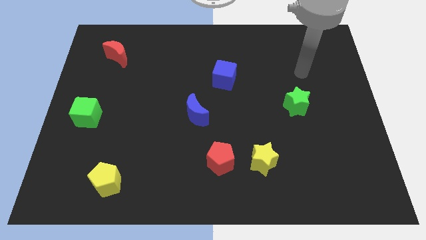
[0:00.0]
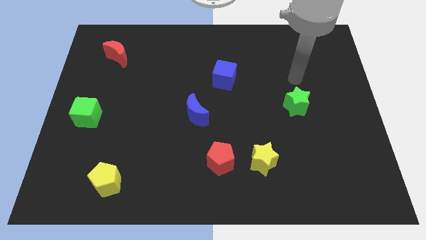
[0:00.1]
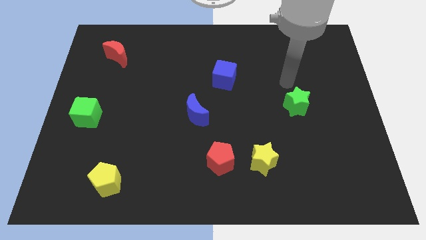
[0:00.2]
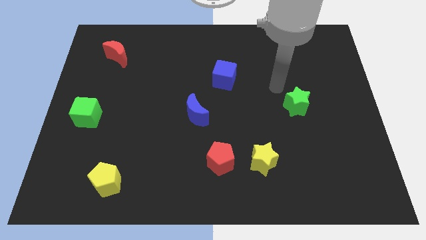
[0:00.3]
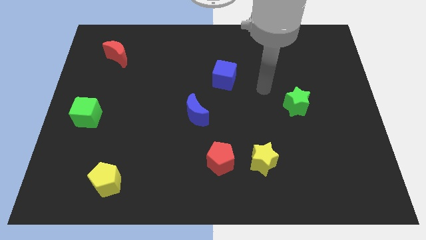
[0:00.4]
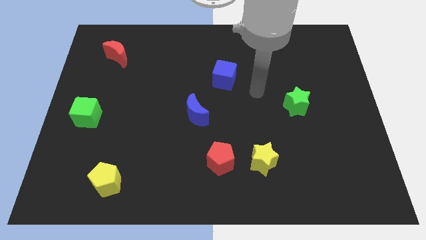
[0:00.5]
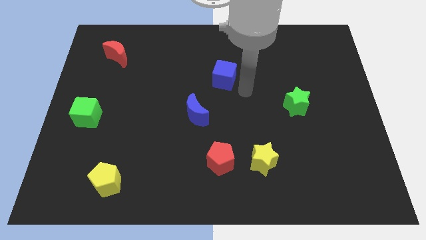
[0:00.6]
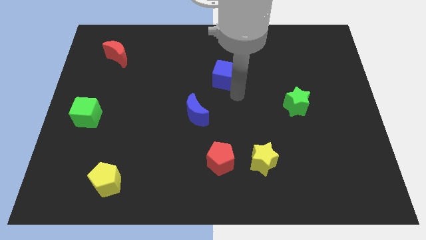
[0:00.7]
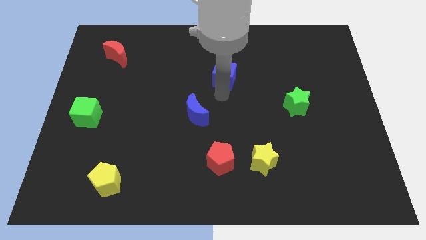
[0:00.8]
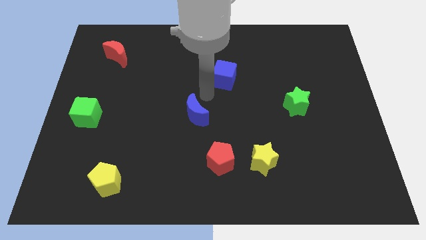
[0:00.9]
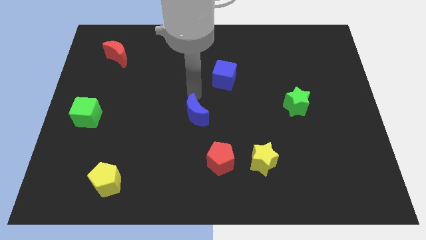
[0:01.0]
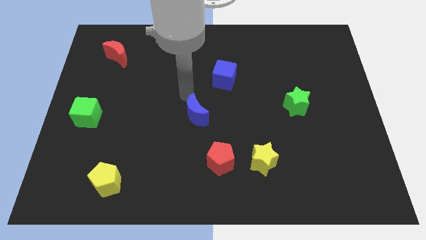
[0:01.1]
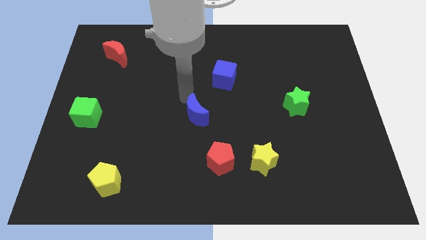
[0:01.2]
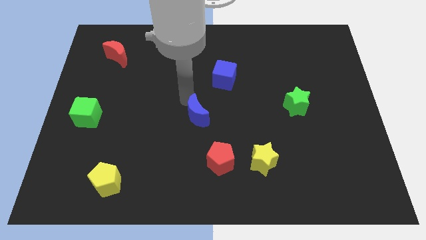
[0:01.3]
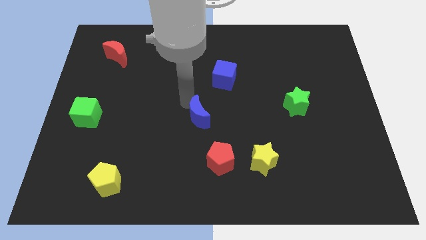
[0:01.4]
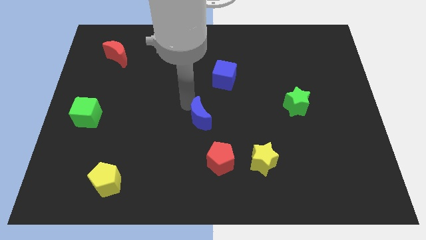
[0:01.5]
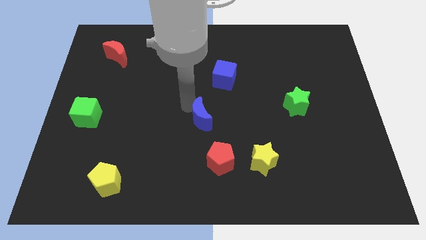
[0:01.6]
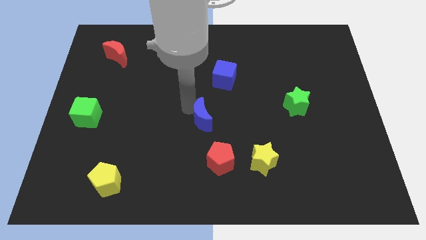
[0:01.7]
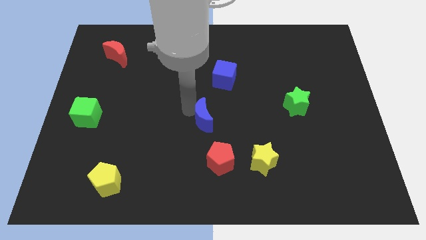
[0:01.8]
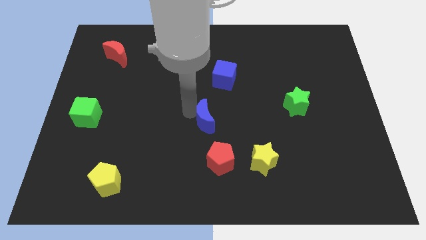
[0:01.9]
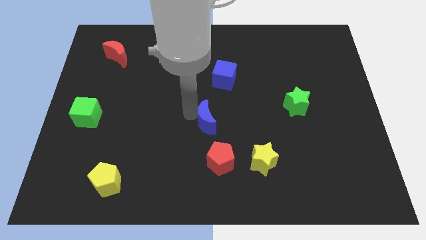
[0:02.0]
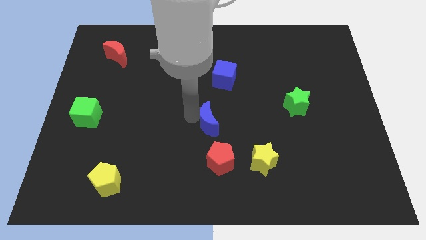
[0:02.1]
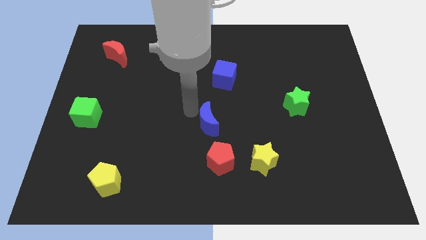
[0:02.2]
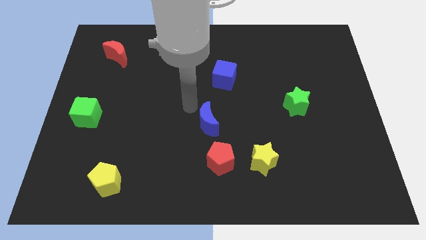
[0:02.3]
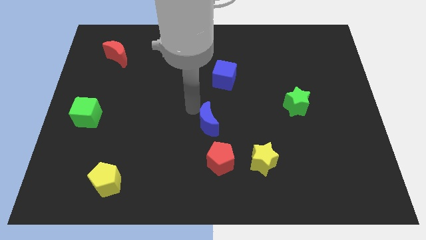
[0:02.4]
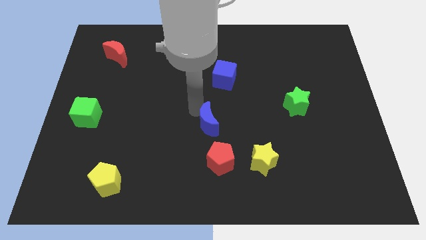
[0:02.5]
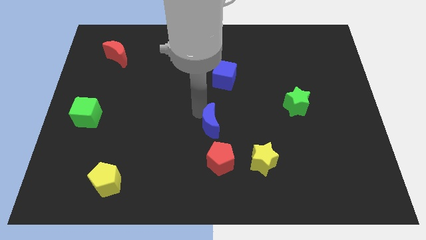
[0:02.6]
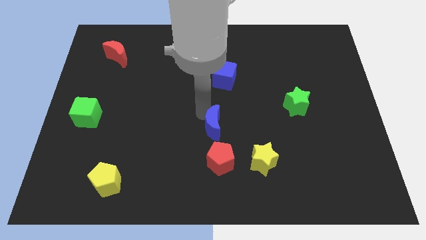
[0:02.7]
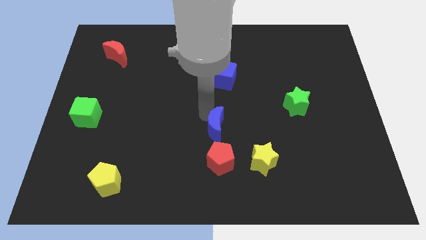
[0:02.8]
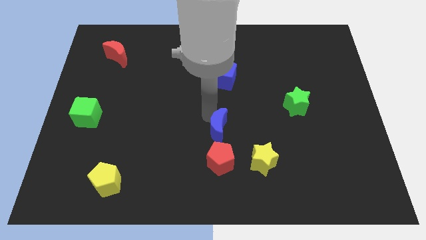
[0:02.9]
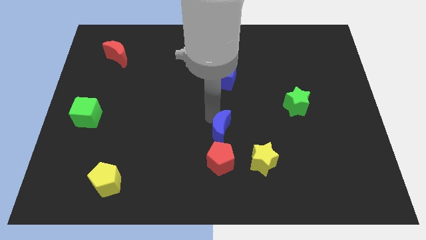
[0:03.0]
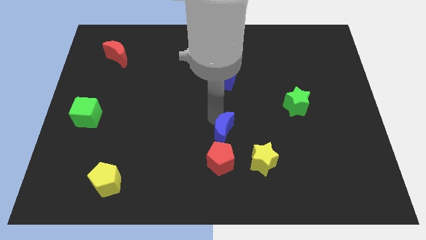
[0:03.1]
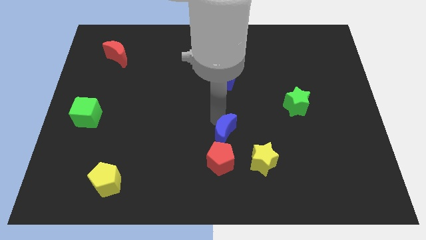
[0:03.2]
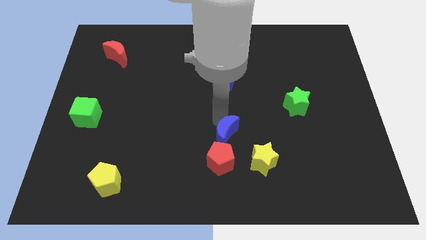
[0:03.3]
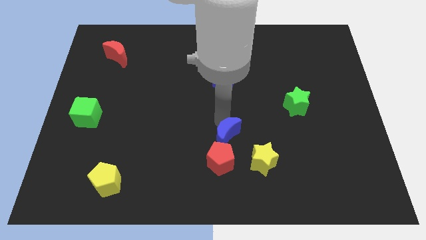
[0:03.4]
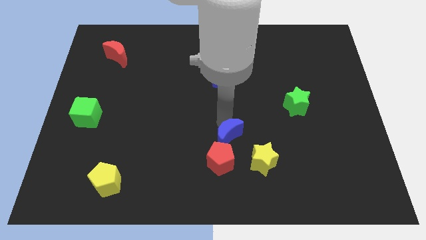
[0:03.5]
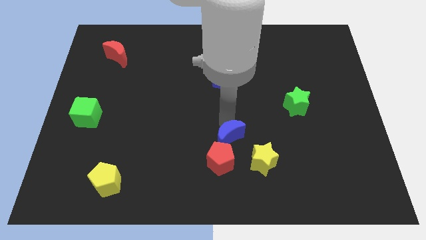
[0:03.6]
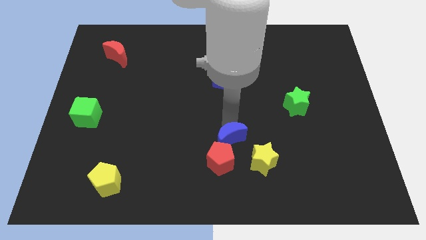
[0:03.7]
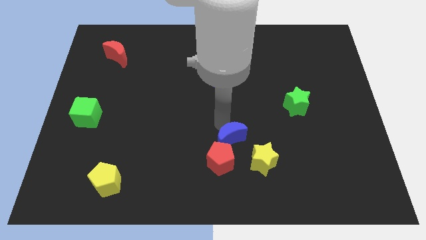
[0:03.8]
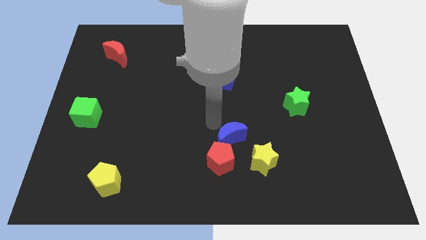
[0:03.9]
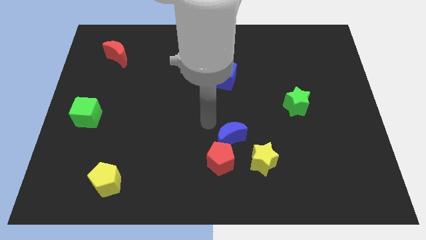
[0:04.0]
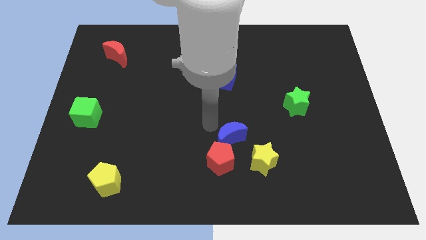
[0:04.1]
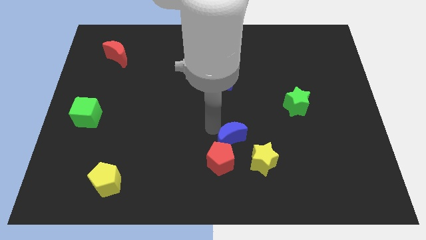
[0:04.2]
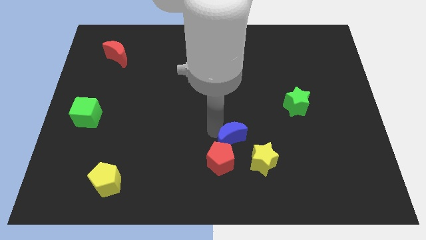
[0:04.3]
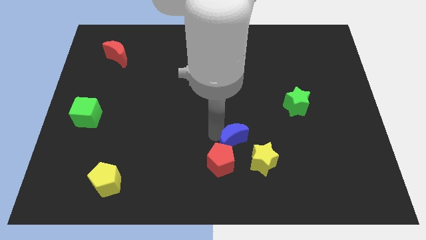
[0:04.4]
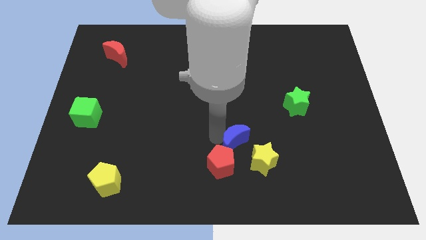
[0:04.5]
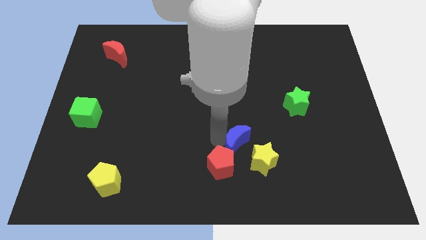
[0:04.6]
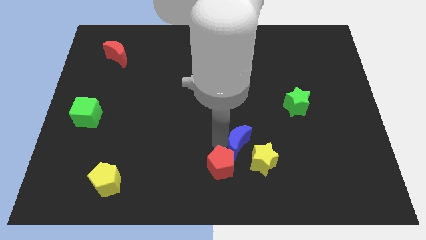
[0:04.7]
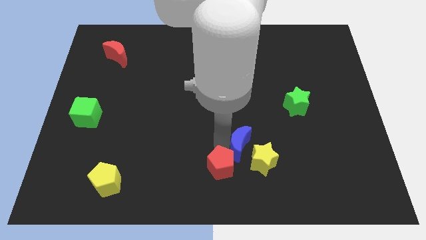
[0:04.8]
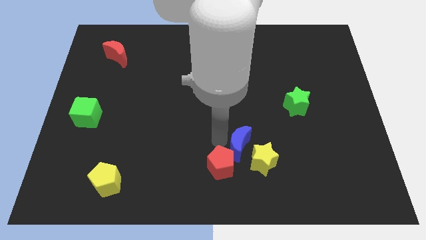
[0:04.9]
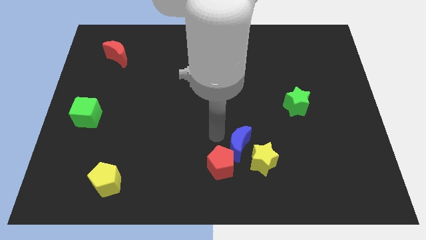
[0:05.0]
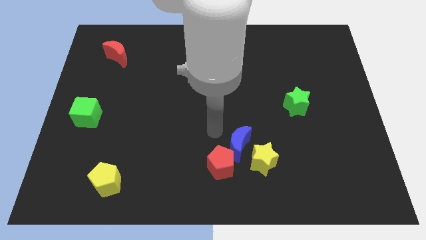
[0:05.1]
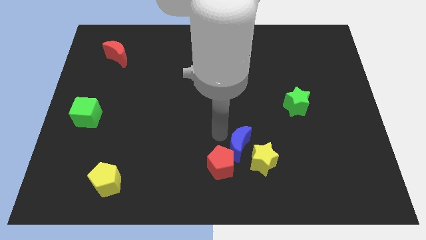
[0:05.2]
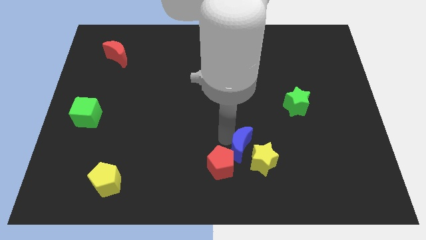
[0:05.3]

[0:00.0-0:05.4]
put the blue moon close to the yellow star

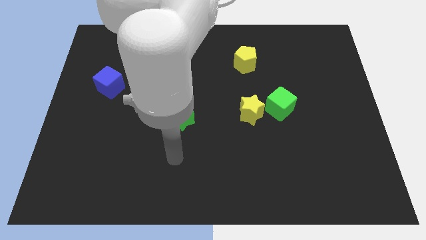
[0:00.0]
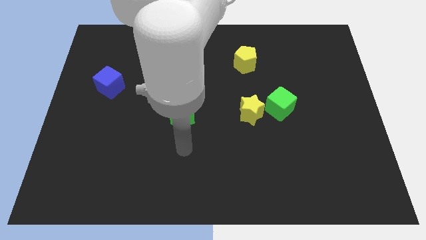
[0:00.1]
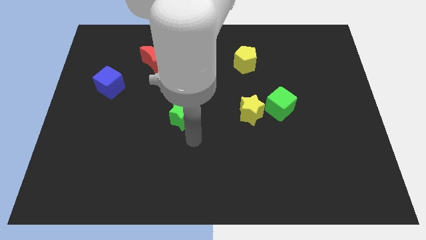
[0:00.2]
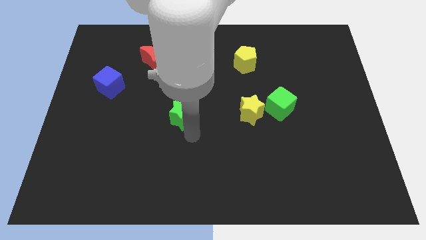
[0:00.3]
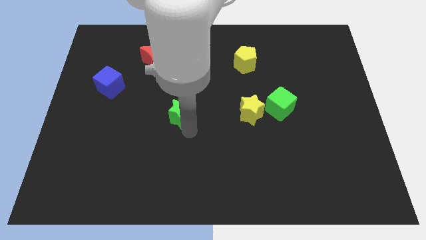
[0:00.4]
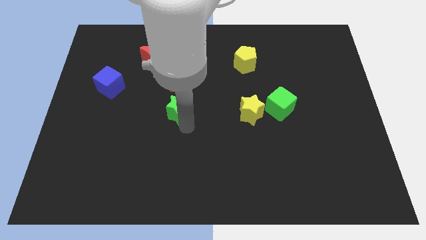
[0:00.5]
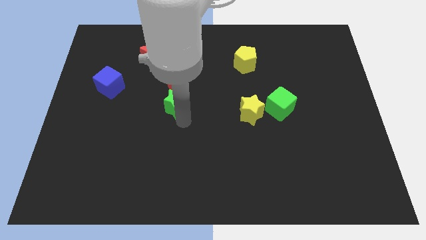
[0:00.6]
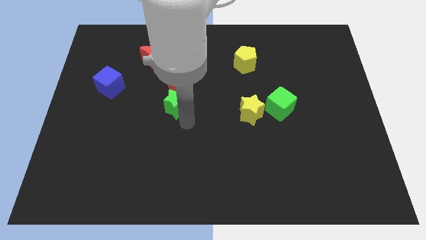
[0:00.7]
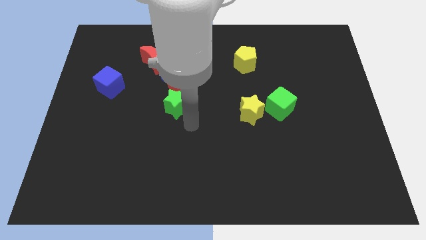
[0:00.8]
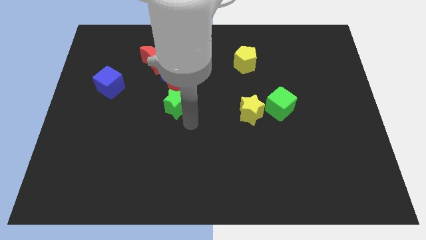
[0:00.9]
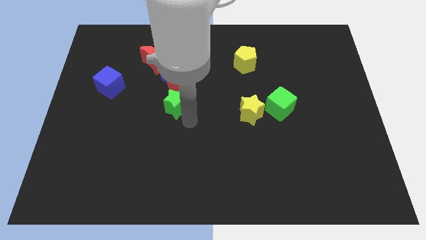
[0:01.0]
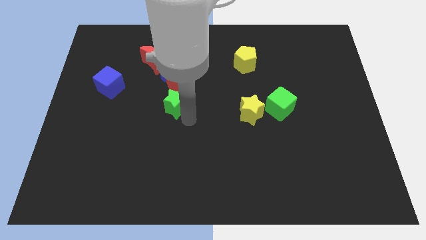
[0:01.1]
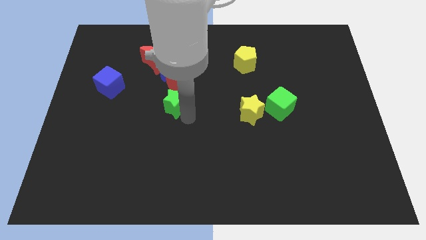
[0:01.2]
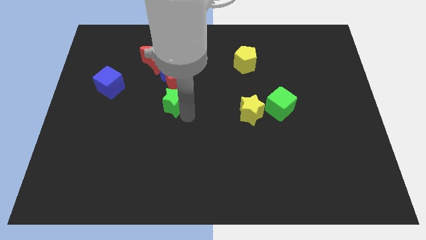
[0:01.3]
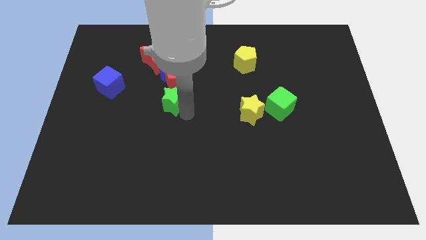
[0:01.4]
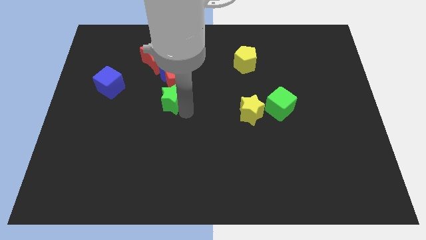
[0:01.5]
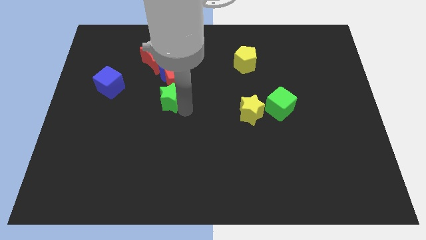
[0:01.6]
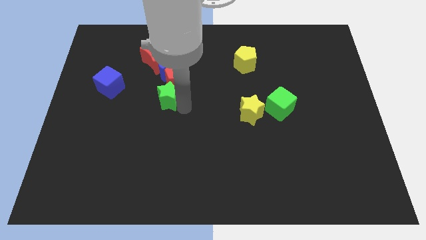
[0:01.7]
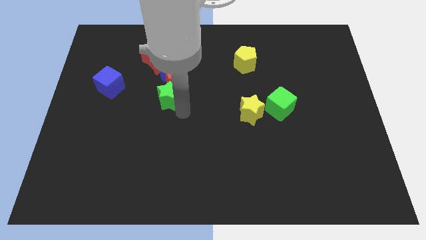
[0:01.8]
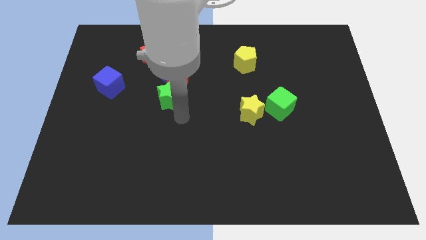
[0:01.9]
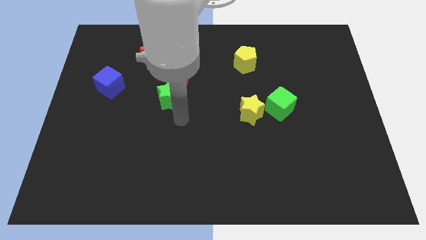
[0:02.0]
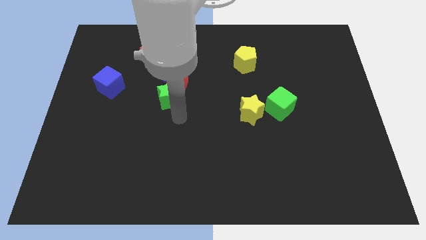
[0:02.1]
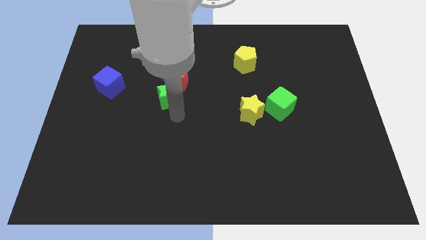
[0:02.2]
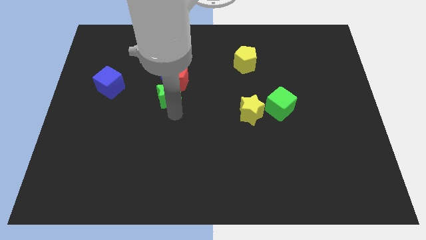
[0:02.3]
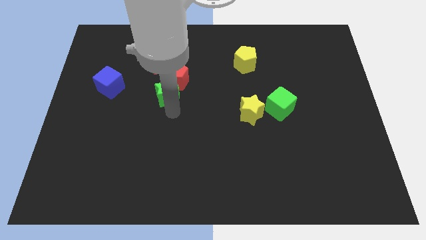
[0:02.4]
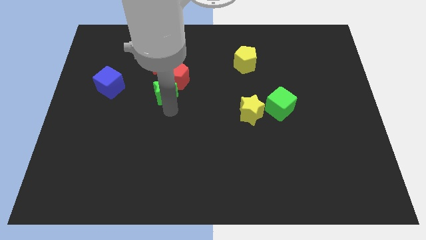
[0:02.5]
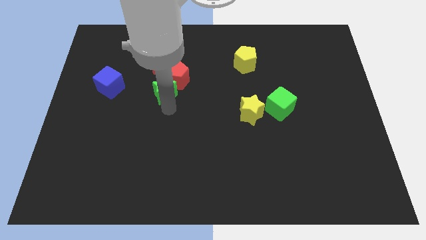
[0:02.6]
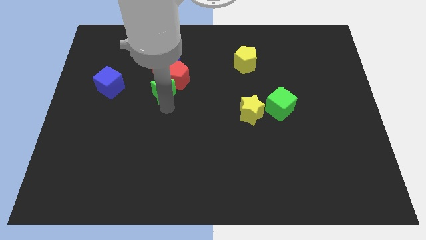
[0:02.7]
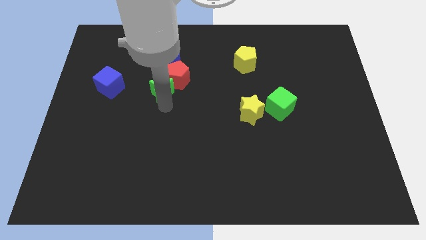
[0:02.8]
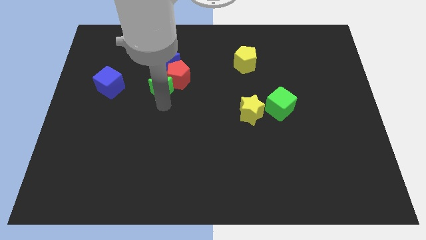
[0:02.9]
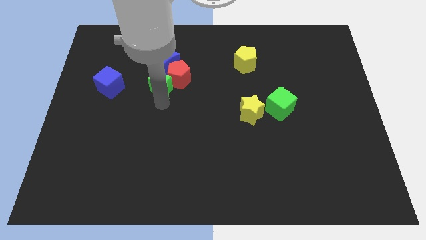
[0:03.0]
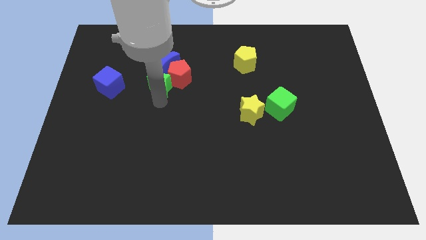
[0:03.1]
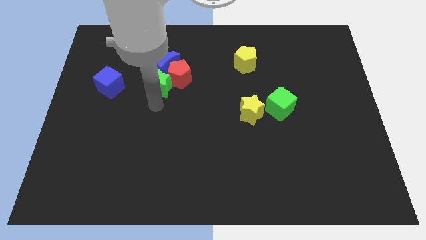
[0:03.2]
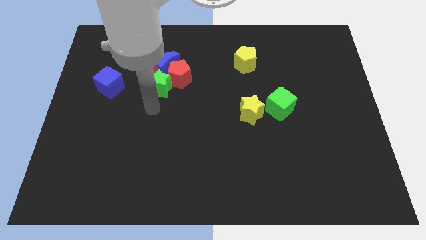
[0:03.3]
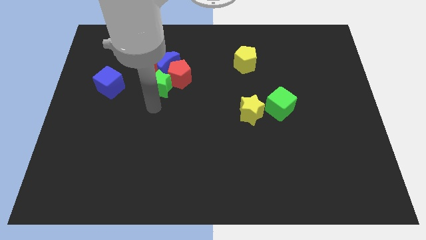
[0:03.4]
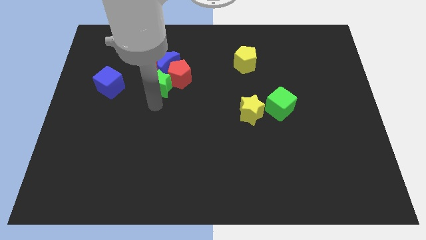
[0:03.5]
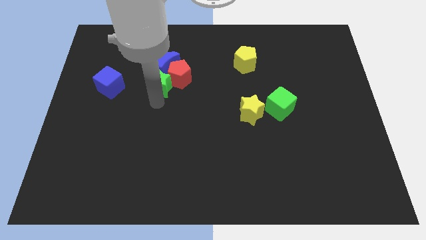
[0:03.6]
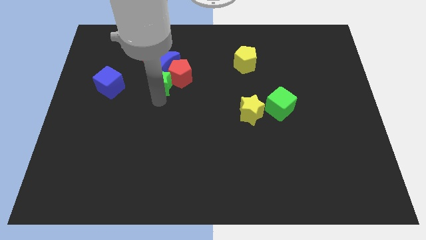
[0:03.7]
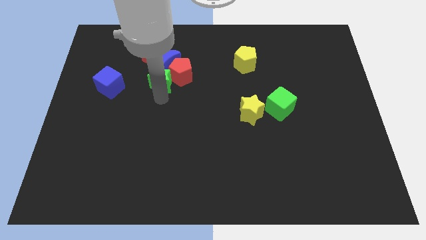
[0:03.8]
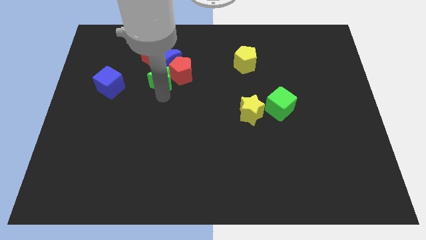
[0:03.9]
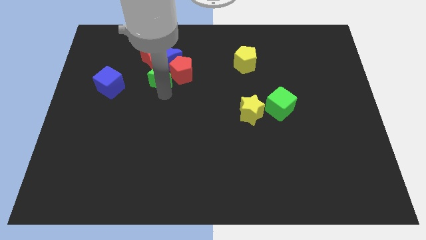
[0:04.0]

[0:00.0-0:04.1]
put the green star towards the blue moon
